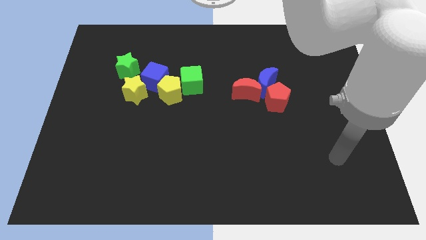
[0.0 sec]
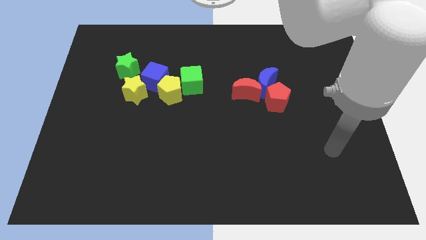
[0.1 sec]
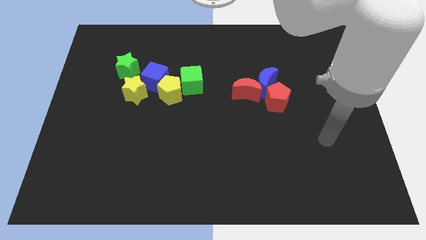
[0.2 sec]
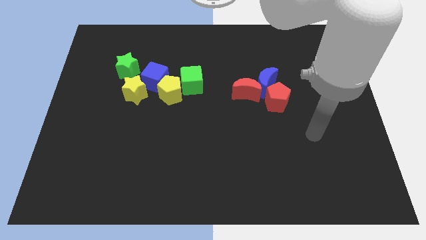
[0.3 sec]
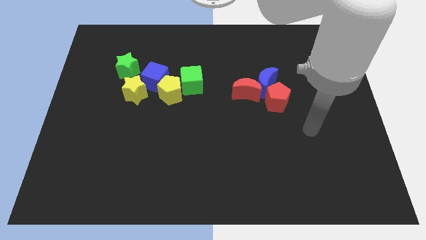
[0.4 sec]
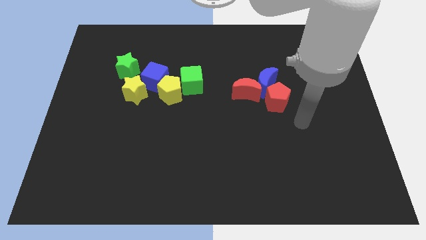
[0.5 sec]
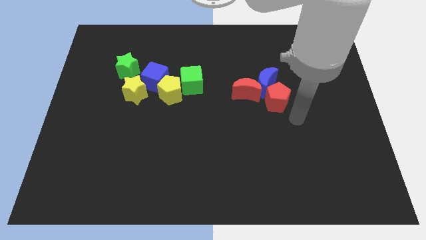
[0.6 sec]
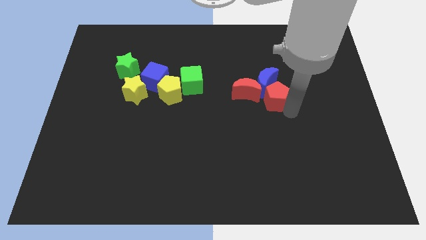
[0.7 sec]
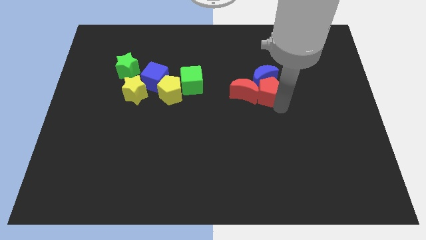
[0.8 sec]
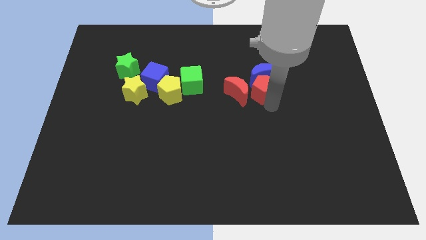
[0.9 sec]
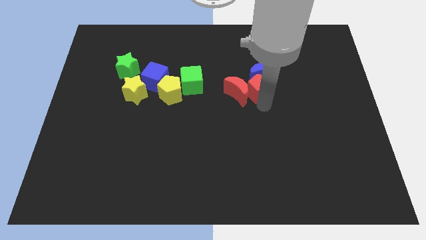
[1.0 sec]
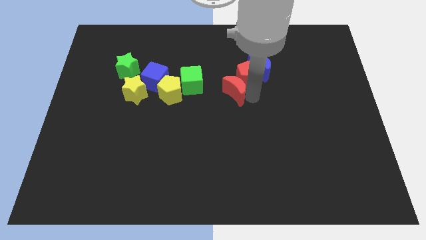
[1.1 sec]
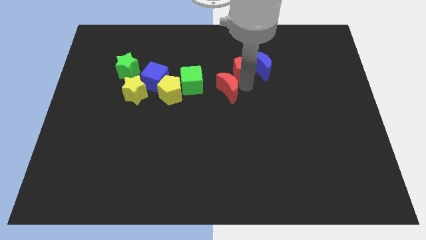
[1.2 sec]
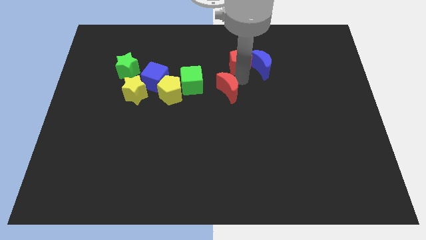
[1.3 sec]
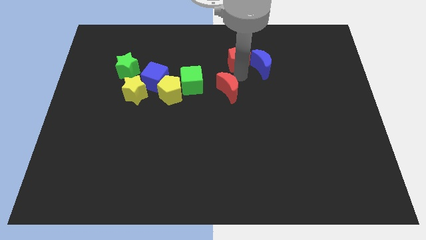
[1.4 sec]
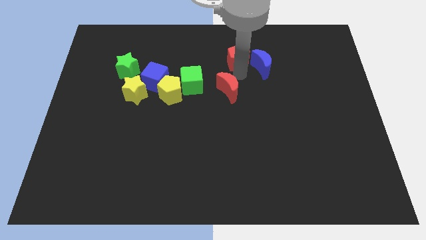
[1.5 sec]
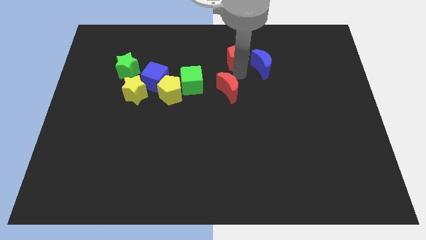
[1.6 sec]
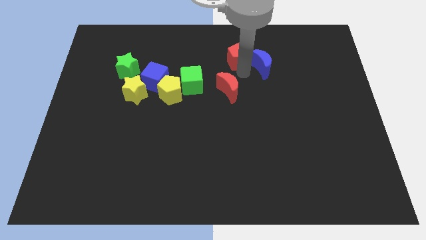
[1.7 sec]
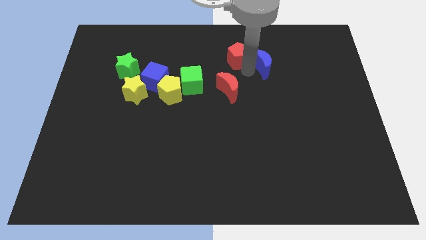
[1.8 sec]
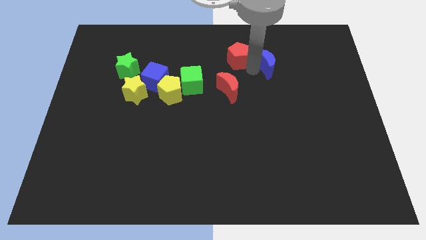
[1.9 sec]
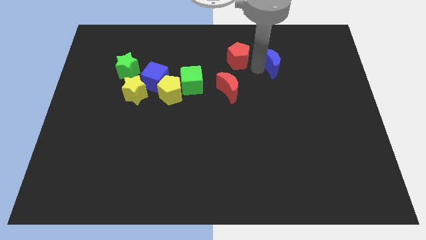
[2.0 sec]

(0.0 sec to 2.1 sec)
pull the blue moon apart from the red moon and red pentagon

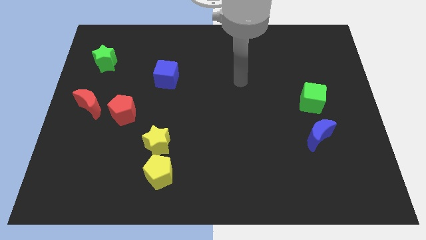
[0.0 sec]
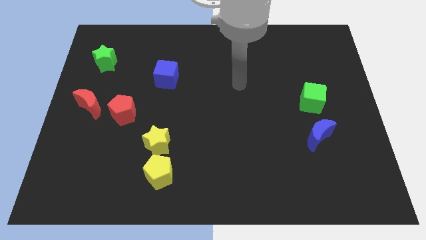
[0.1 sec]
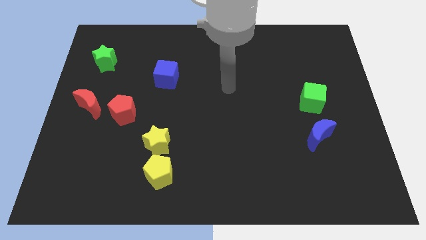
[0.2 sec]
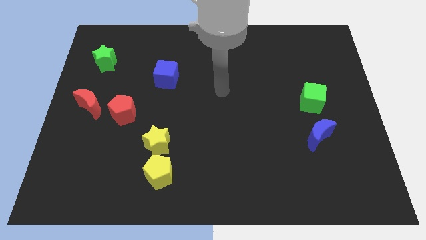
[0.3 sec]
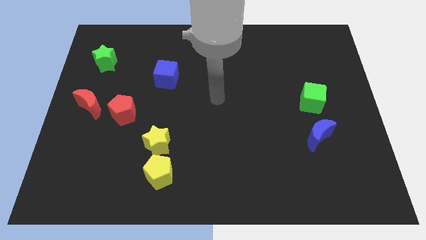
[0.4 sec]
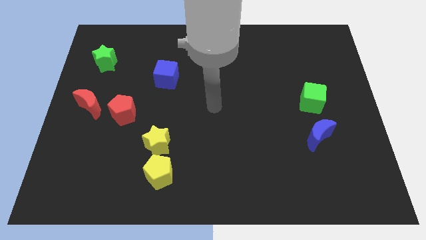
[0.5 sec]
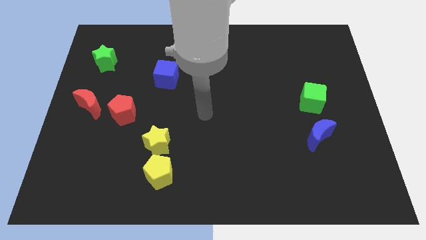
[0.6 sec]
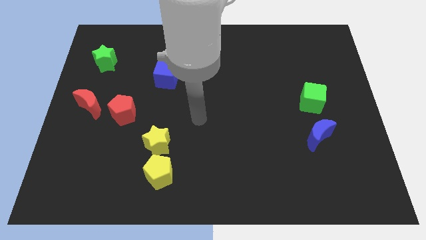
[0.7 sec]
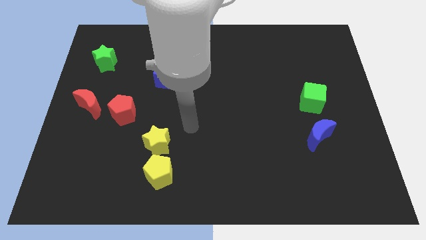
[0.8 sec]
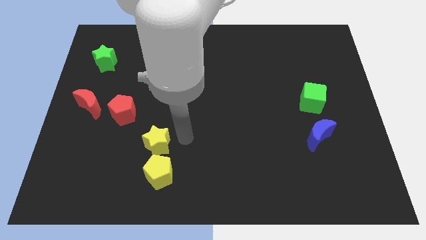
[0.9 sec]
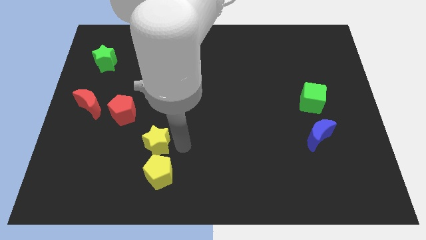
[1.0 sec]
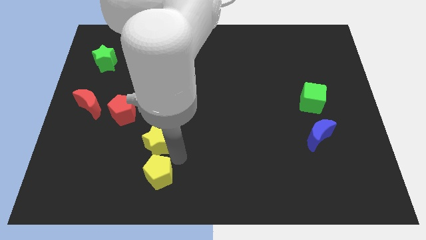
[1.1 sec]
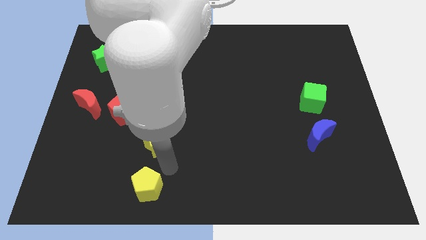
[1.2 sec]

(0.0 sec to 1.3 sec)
separate the yellow star from the yellow pentagon

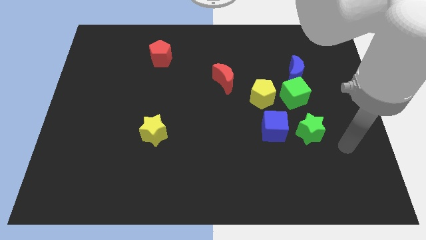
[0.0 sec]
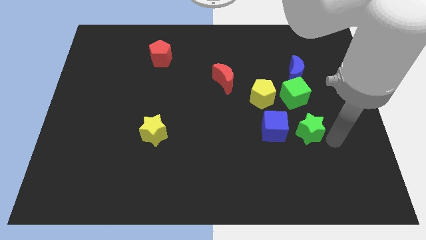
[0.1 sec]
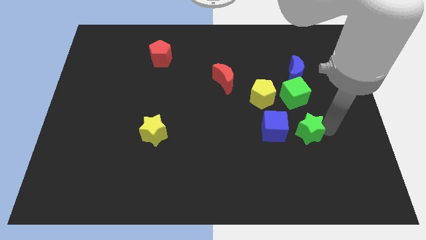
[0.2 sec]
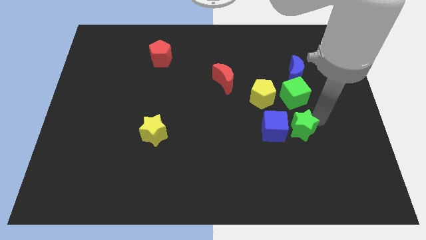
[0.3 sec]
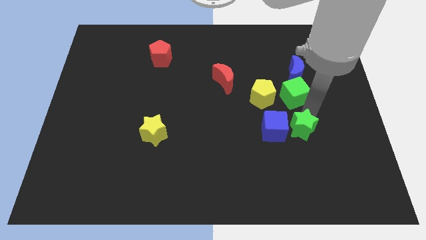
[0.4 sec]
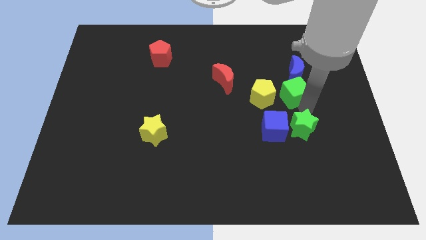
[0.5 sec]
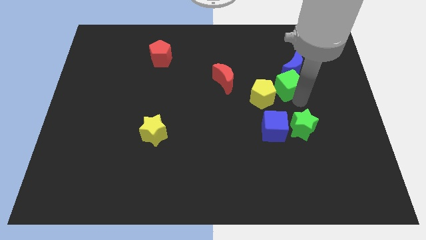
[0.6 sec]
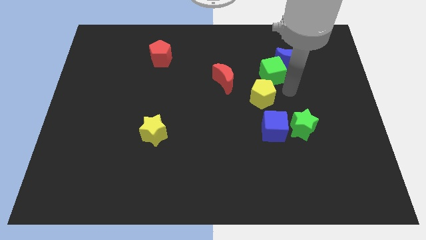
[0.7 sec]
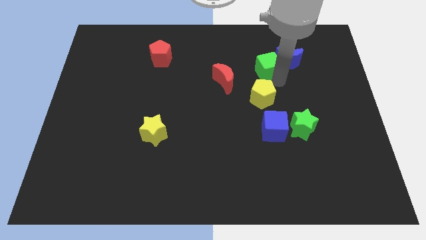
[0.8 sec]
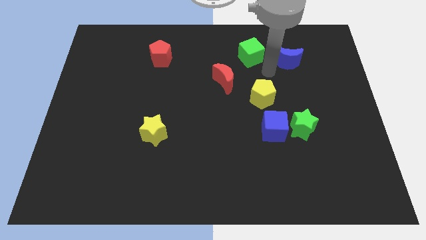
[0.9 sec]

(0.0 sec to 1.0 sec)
separate the blue moon from the green cube

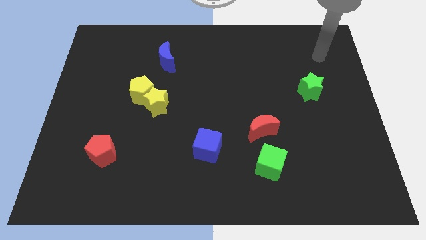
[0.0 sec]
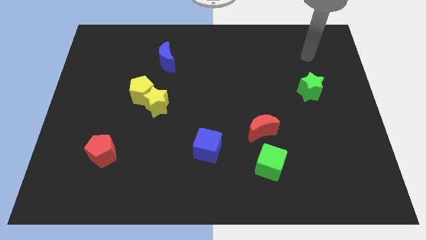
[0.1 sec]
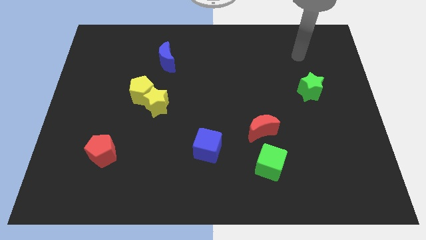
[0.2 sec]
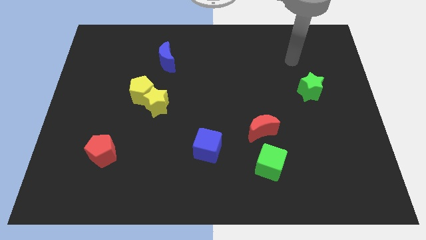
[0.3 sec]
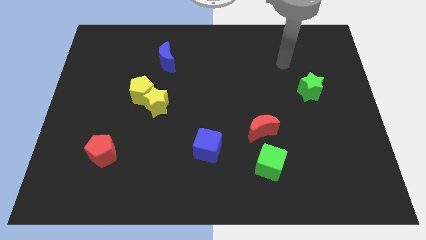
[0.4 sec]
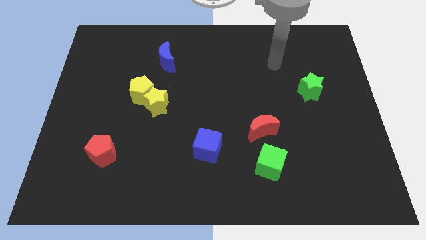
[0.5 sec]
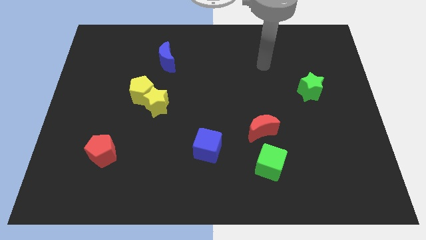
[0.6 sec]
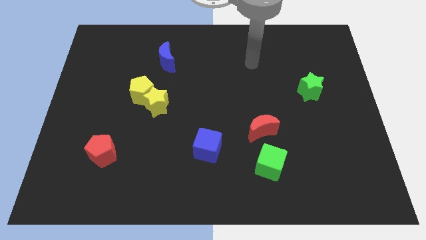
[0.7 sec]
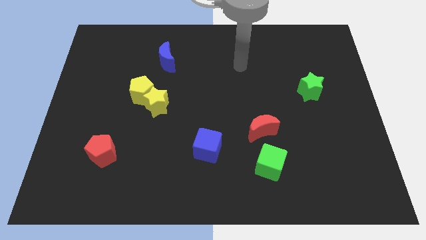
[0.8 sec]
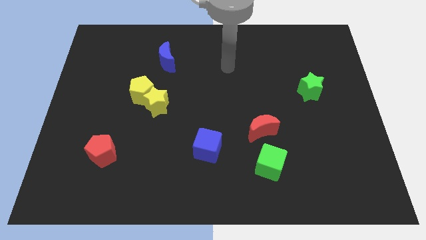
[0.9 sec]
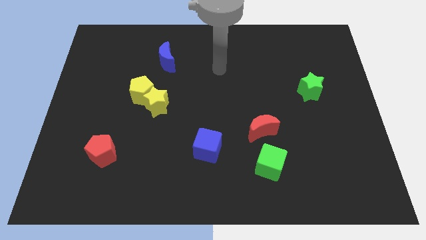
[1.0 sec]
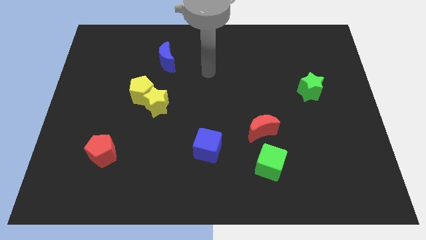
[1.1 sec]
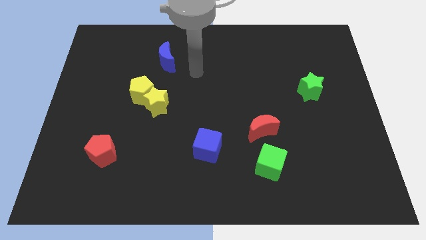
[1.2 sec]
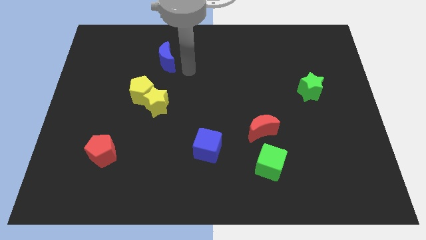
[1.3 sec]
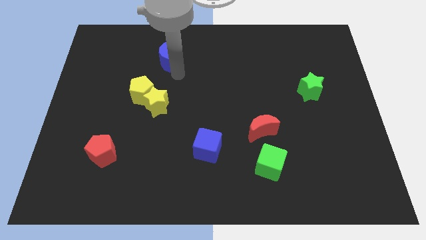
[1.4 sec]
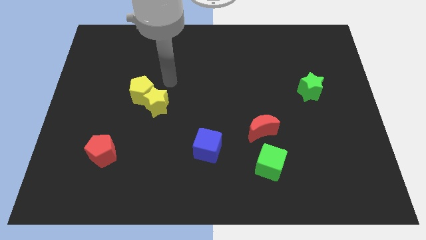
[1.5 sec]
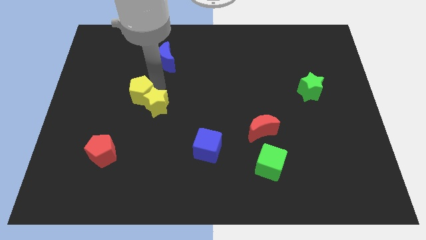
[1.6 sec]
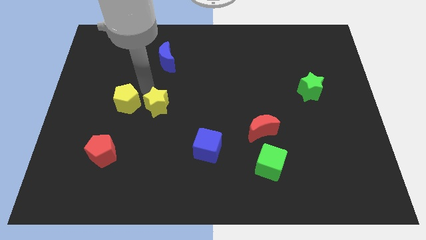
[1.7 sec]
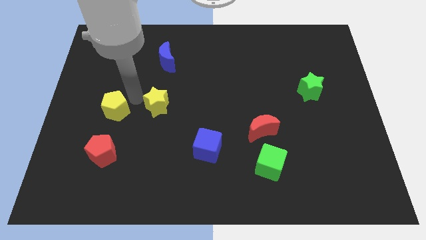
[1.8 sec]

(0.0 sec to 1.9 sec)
move the yellow star away from the yellow pentagon

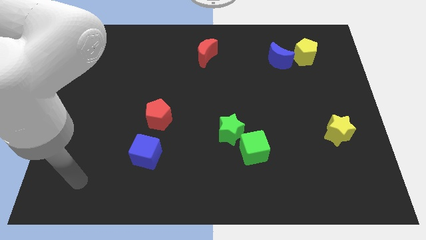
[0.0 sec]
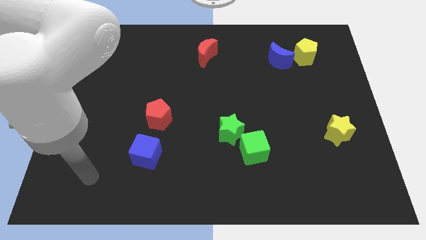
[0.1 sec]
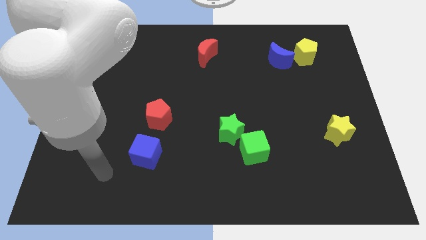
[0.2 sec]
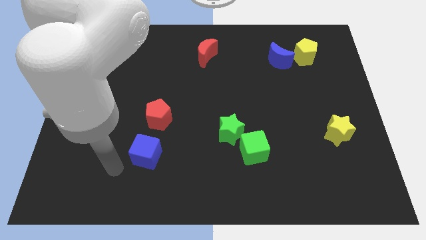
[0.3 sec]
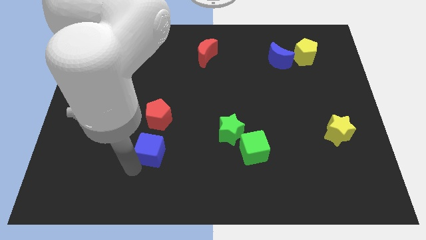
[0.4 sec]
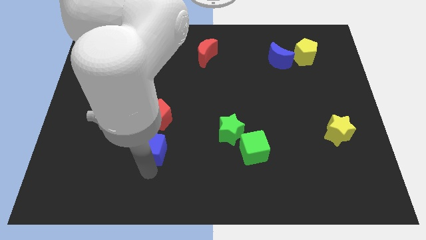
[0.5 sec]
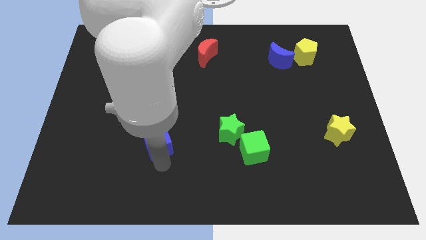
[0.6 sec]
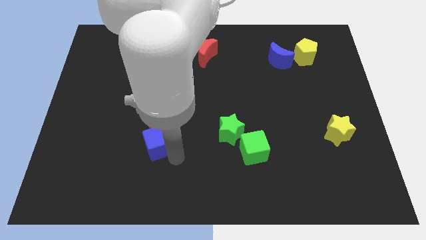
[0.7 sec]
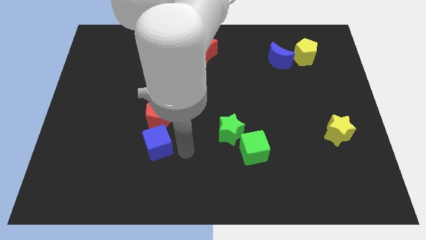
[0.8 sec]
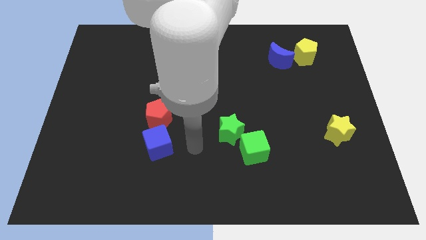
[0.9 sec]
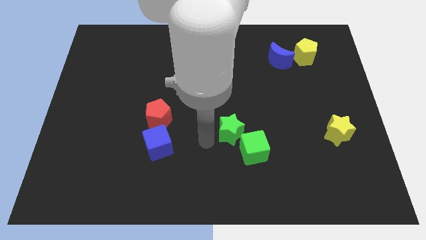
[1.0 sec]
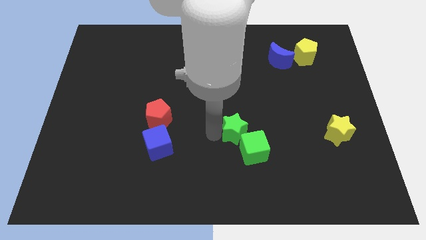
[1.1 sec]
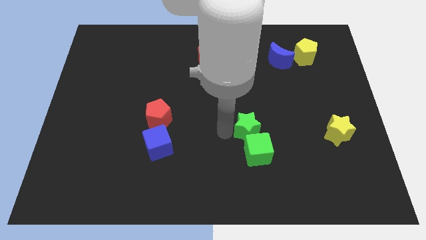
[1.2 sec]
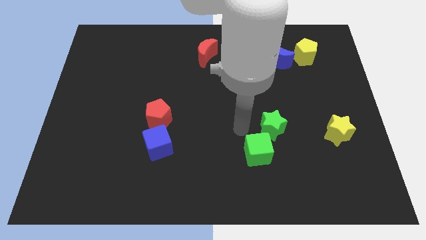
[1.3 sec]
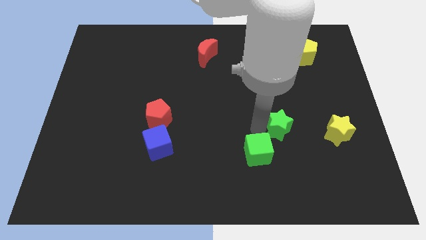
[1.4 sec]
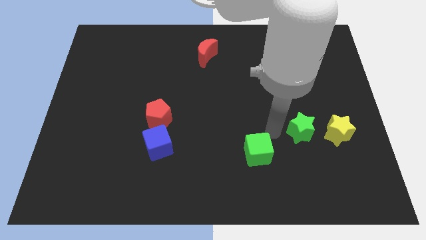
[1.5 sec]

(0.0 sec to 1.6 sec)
separate the green cube from the green star

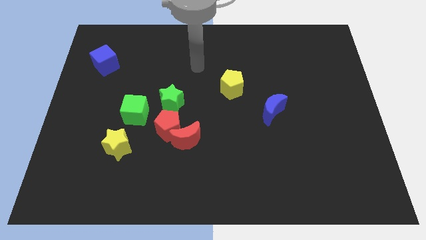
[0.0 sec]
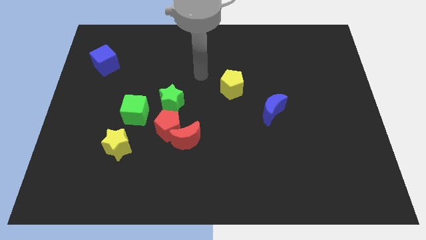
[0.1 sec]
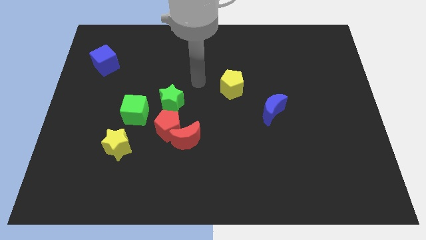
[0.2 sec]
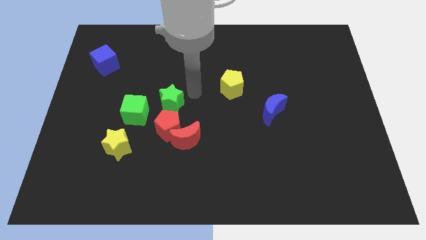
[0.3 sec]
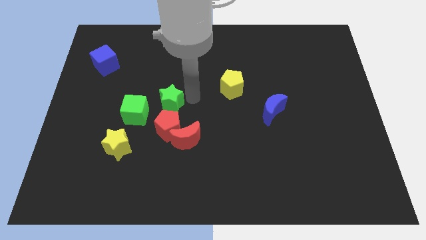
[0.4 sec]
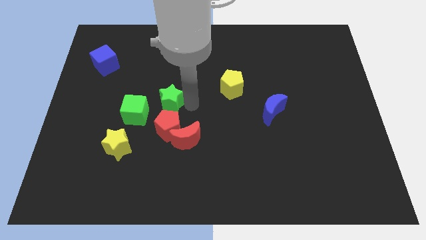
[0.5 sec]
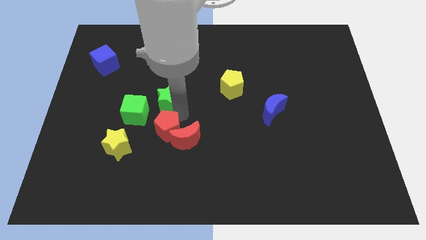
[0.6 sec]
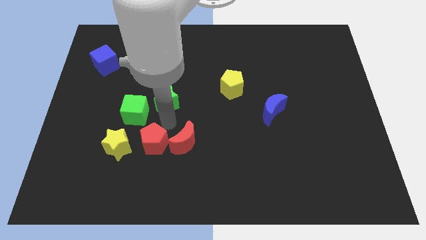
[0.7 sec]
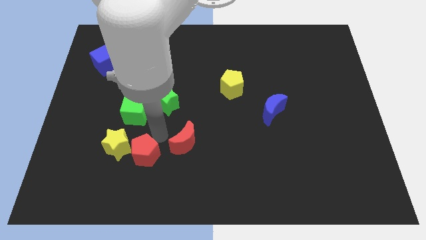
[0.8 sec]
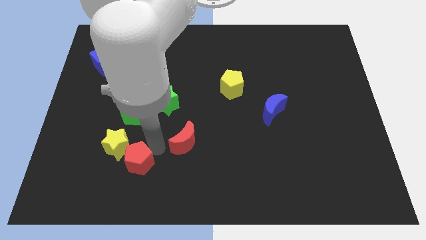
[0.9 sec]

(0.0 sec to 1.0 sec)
move the red moon away from the red pentagon

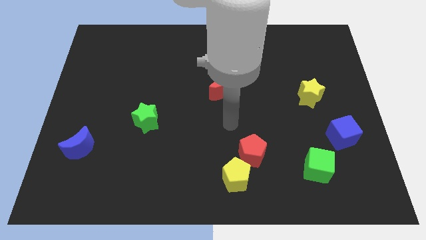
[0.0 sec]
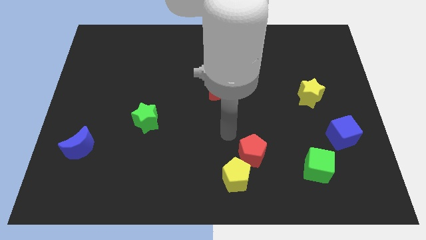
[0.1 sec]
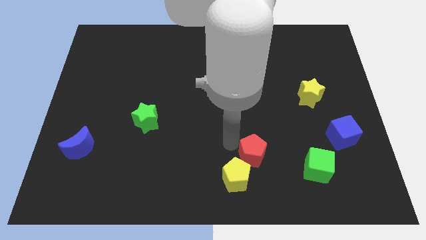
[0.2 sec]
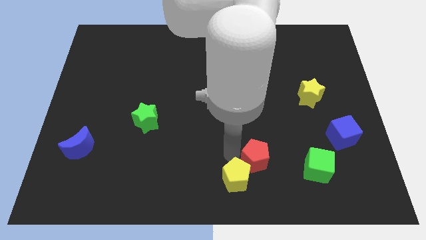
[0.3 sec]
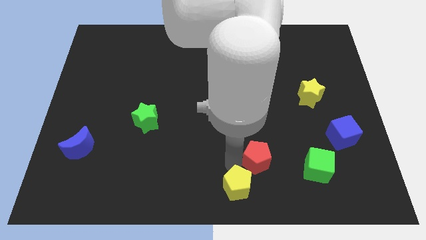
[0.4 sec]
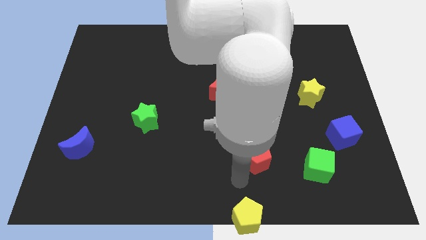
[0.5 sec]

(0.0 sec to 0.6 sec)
separate the red pentagon from the yellow pentagon
